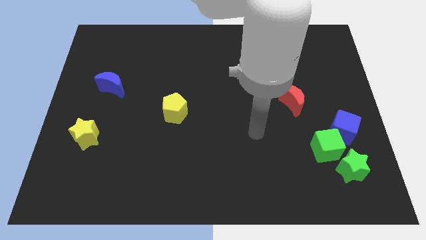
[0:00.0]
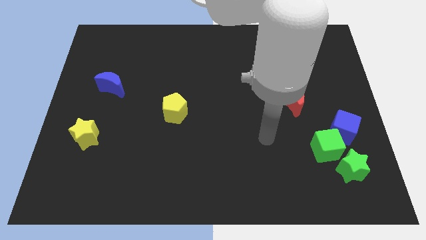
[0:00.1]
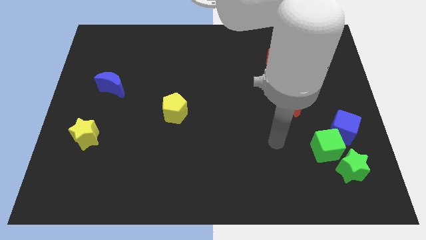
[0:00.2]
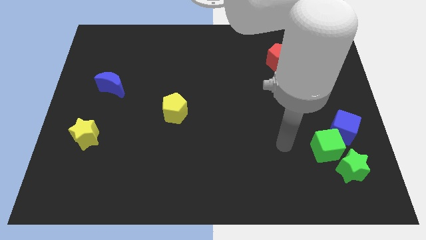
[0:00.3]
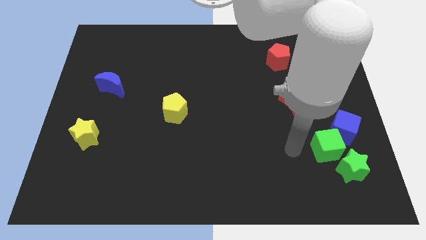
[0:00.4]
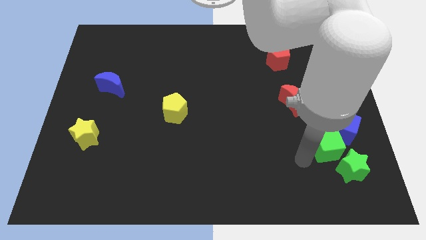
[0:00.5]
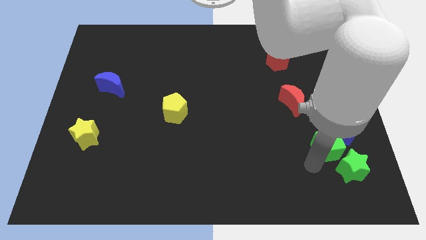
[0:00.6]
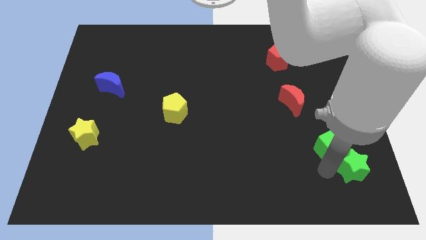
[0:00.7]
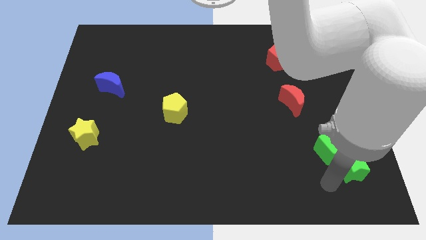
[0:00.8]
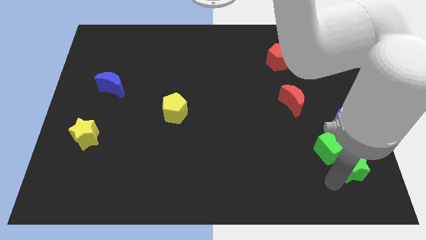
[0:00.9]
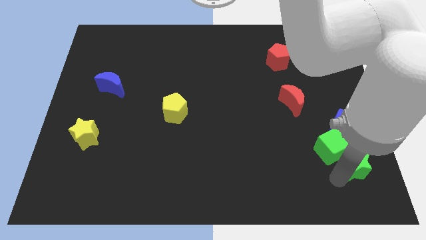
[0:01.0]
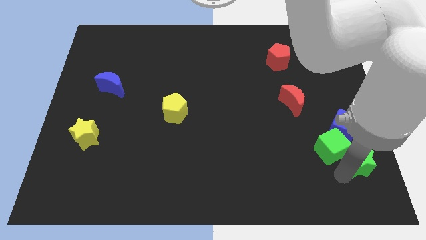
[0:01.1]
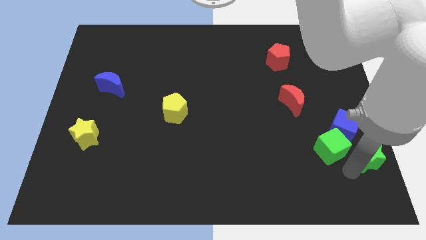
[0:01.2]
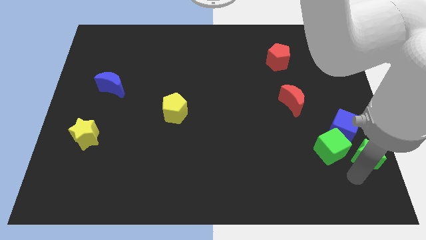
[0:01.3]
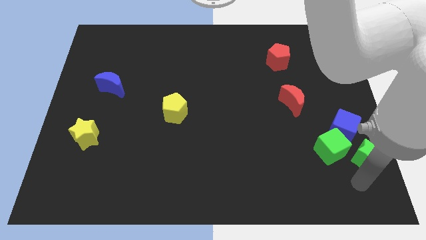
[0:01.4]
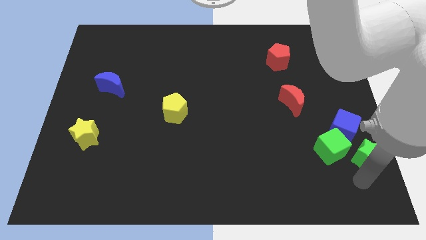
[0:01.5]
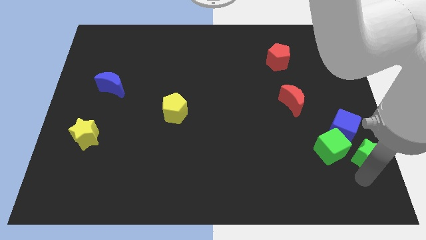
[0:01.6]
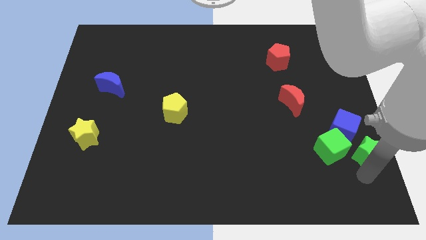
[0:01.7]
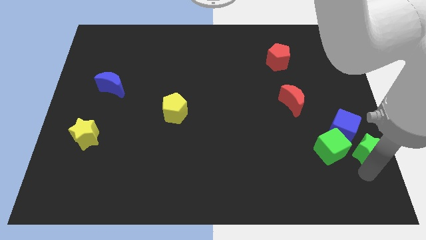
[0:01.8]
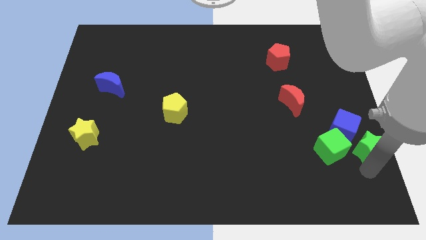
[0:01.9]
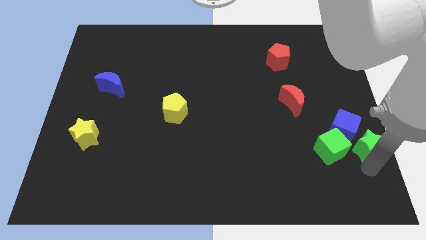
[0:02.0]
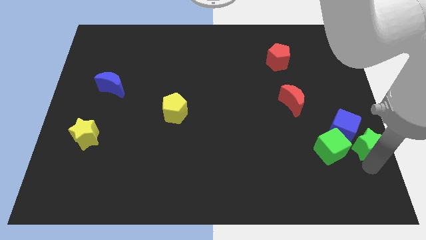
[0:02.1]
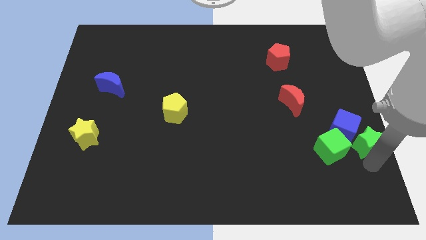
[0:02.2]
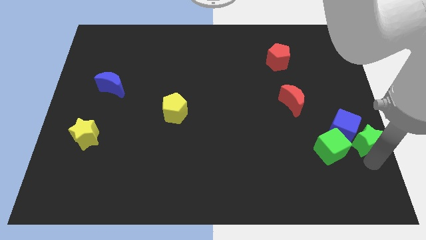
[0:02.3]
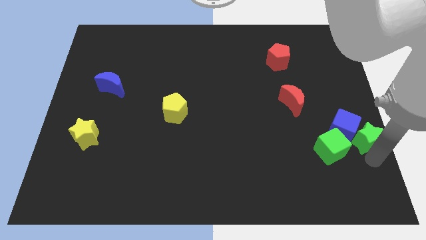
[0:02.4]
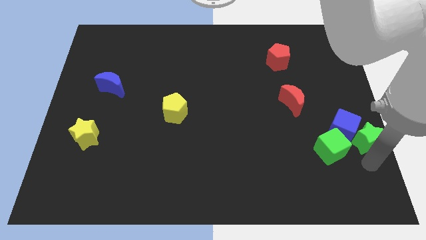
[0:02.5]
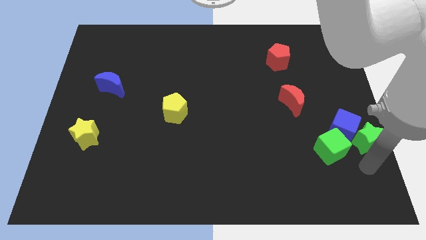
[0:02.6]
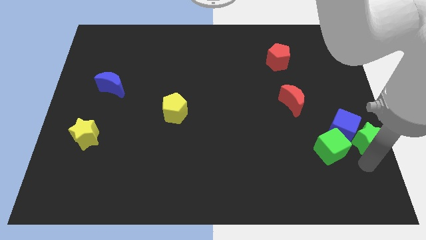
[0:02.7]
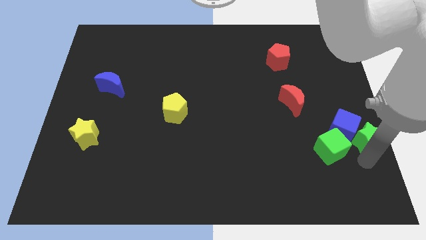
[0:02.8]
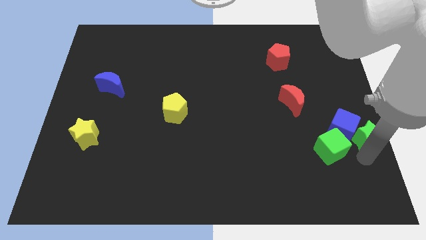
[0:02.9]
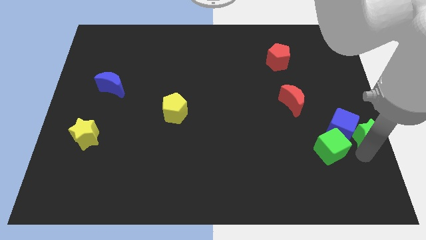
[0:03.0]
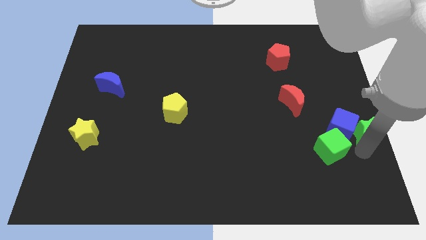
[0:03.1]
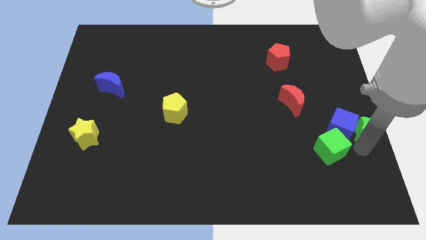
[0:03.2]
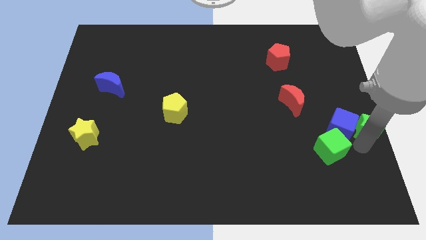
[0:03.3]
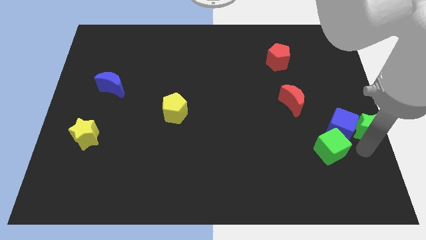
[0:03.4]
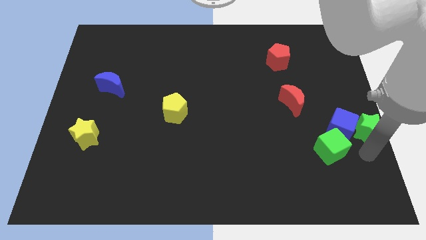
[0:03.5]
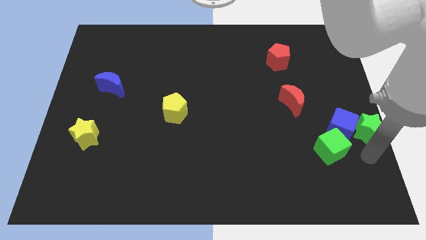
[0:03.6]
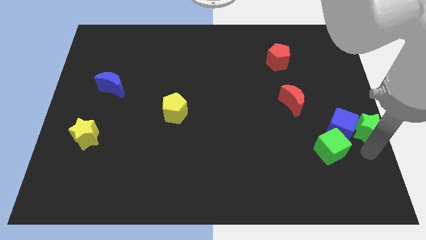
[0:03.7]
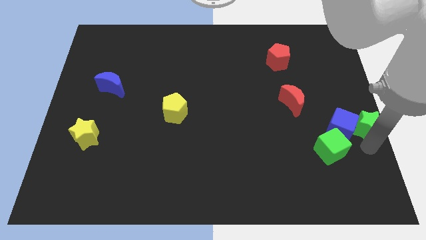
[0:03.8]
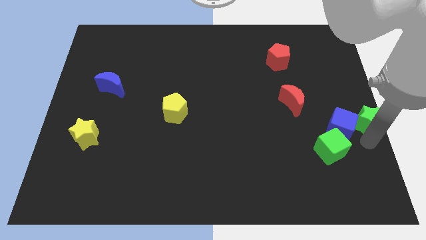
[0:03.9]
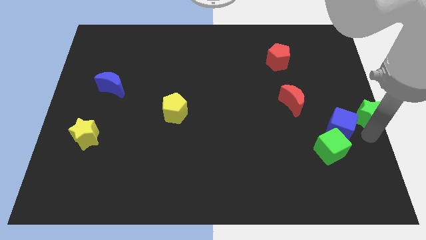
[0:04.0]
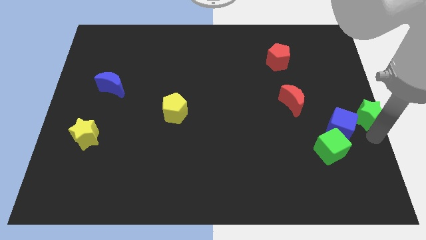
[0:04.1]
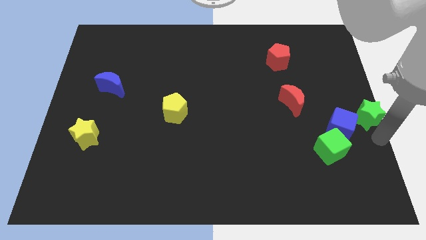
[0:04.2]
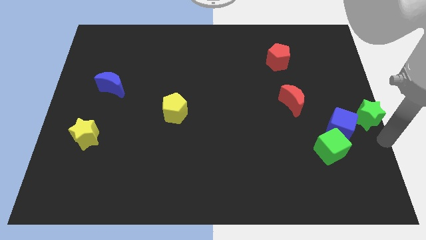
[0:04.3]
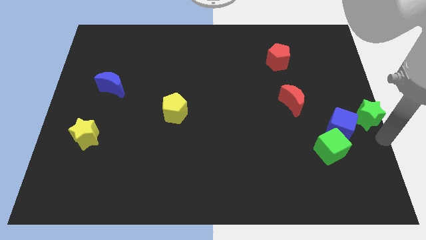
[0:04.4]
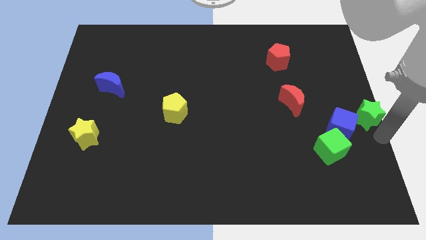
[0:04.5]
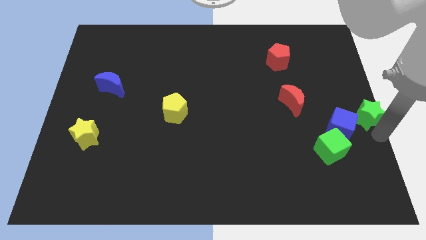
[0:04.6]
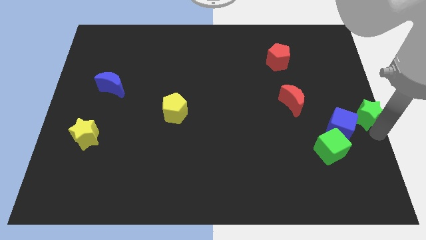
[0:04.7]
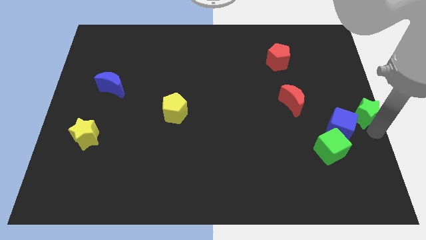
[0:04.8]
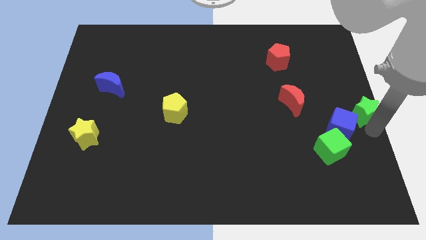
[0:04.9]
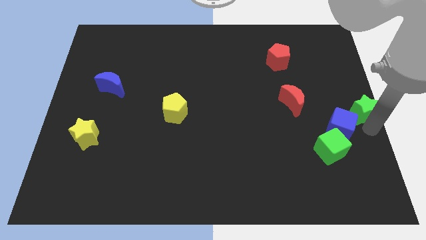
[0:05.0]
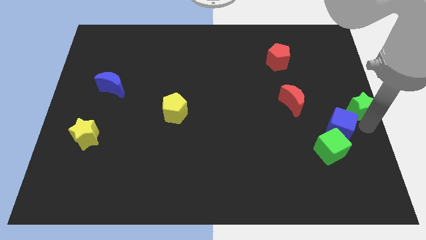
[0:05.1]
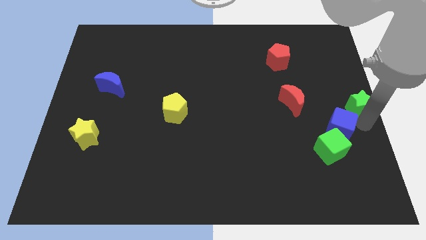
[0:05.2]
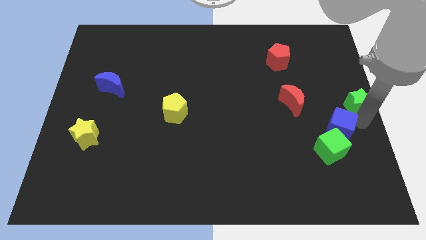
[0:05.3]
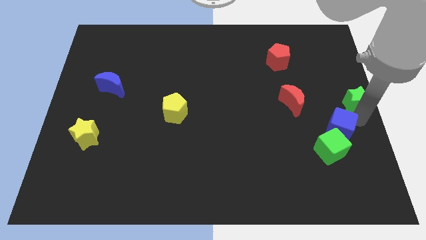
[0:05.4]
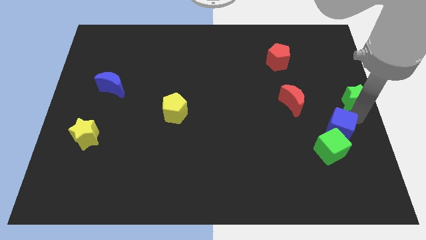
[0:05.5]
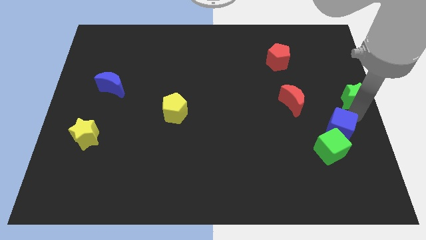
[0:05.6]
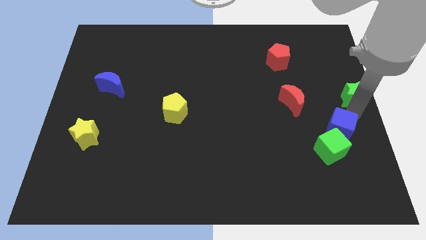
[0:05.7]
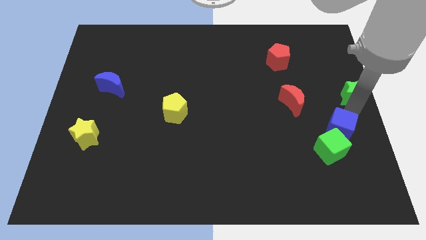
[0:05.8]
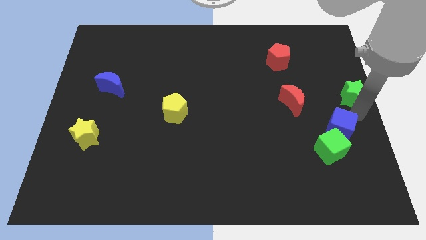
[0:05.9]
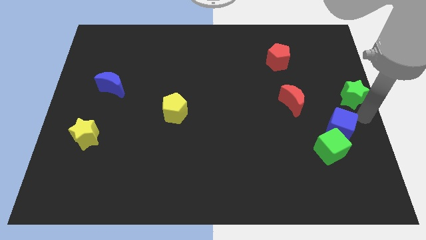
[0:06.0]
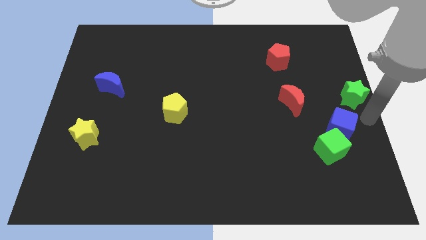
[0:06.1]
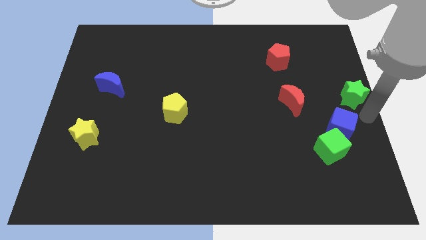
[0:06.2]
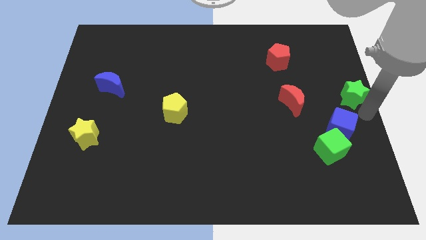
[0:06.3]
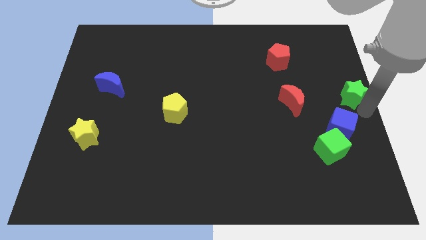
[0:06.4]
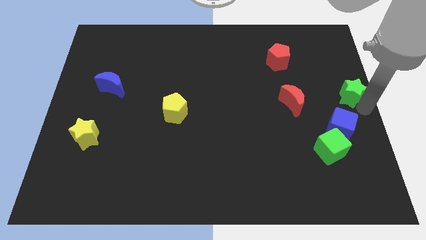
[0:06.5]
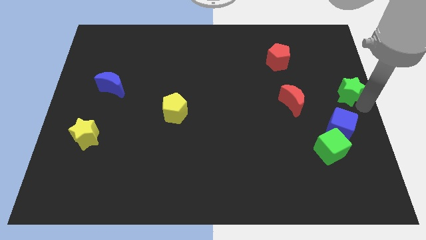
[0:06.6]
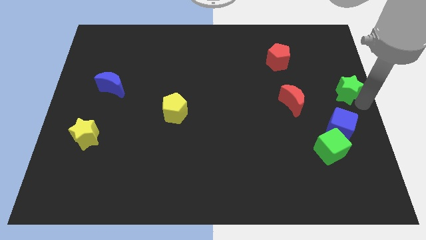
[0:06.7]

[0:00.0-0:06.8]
move the green star up

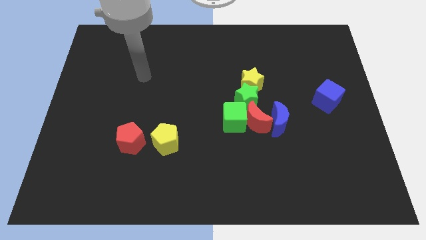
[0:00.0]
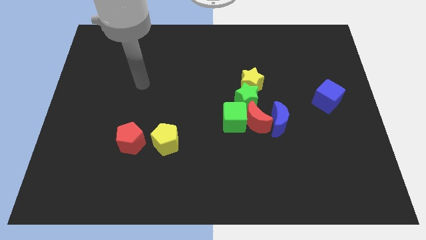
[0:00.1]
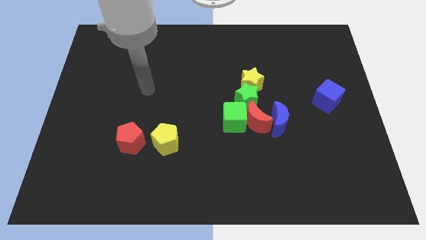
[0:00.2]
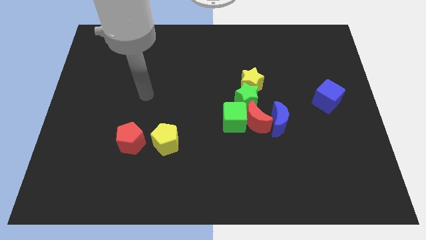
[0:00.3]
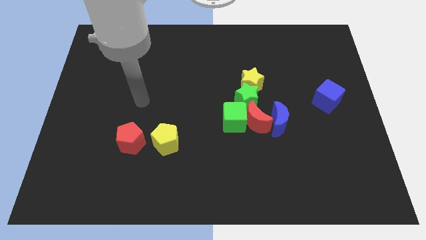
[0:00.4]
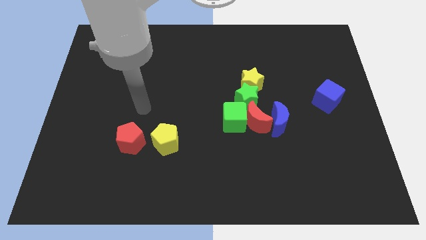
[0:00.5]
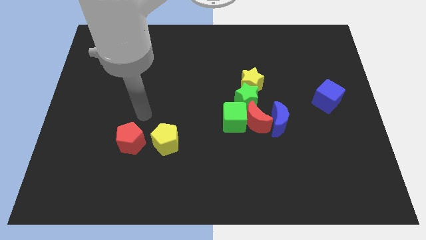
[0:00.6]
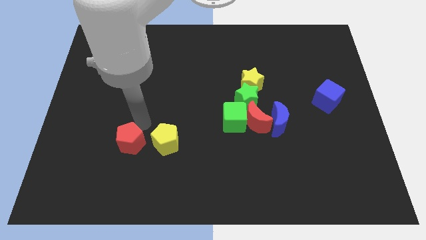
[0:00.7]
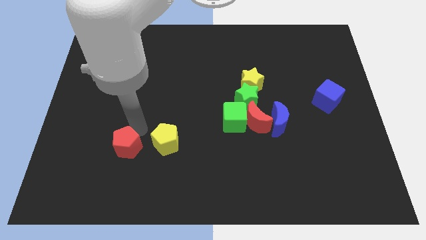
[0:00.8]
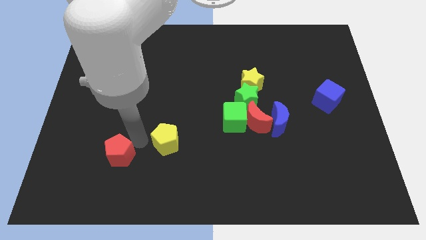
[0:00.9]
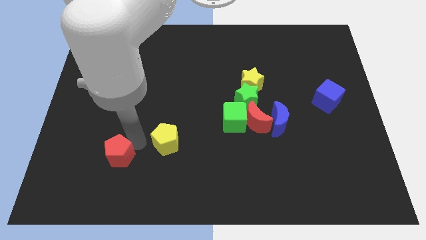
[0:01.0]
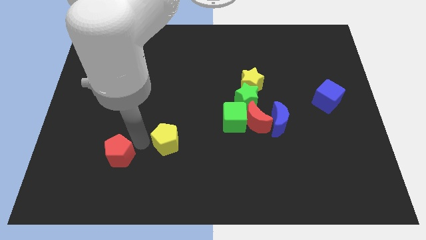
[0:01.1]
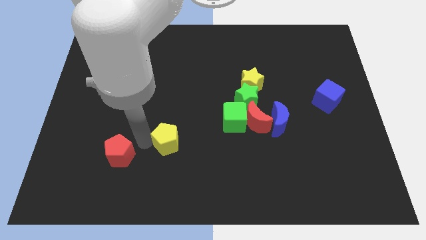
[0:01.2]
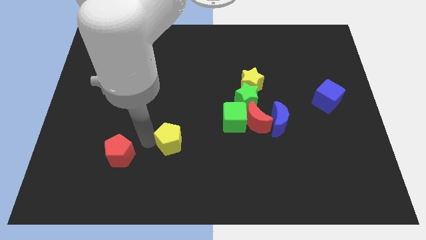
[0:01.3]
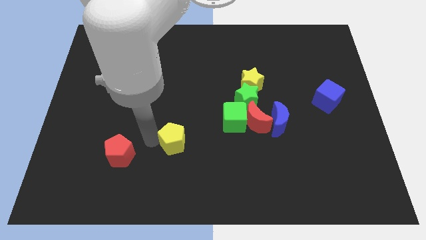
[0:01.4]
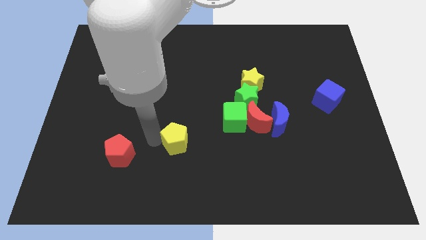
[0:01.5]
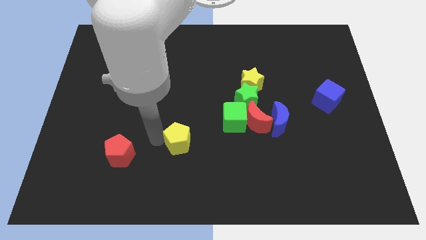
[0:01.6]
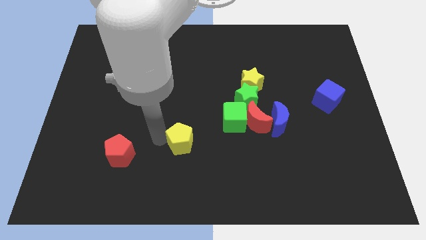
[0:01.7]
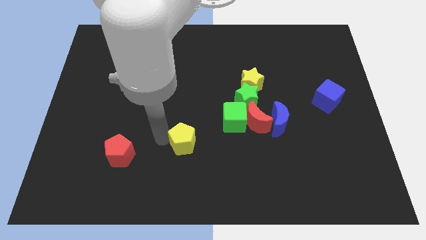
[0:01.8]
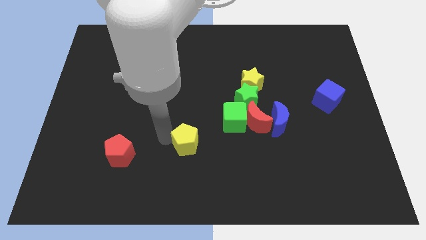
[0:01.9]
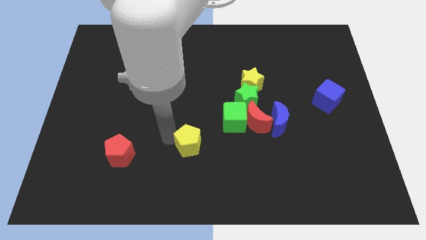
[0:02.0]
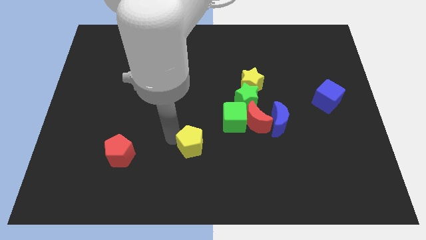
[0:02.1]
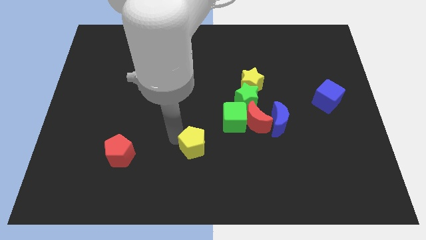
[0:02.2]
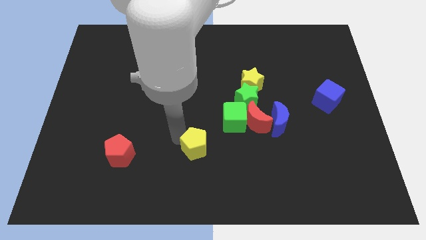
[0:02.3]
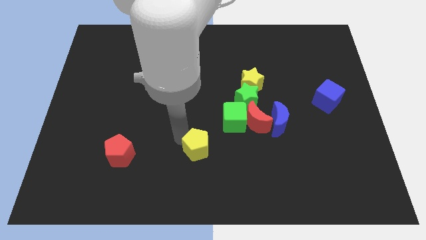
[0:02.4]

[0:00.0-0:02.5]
move the yellow pentagon right a little bit
